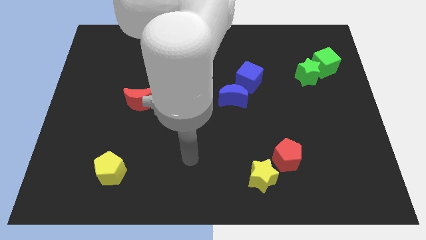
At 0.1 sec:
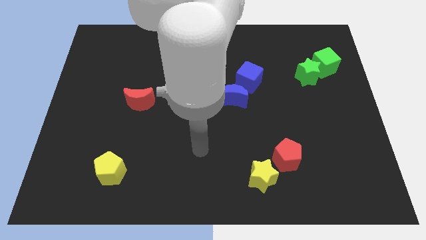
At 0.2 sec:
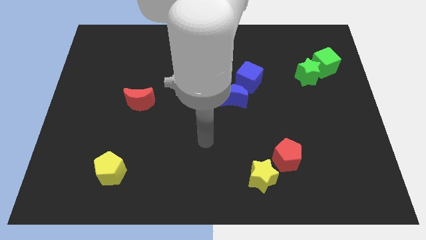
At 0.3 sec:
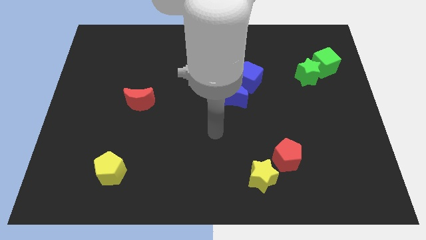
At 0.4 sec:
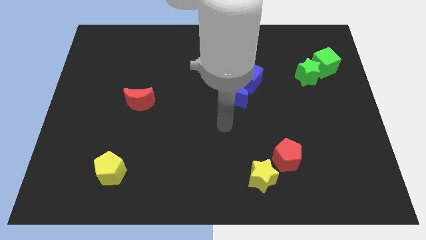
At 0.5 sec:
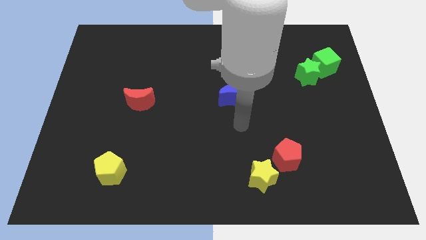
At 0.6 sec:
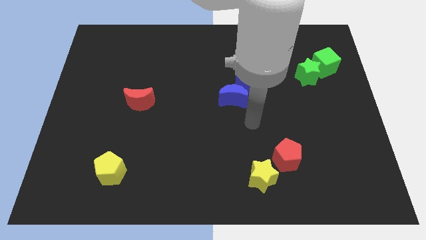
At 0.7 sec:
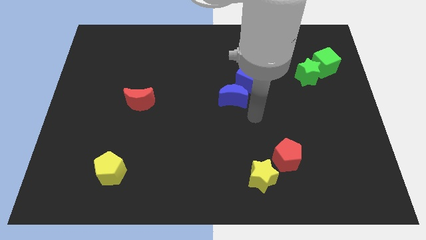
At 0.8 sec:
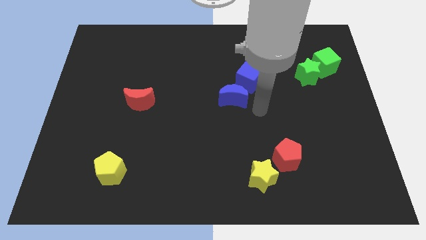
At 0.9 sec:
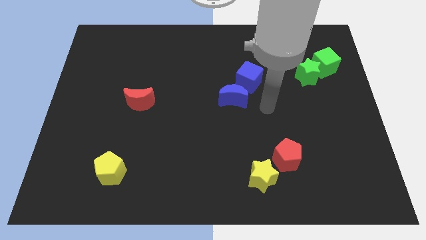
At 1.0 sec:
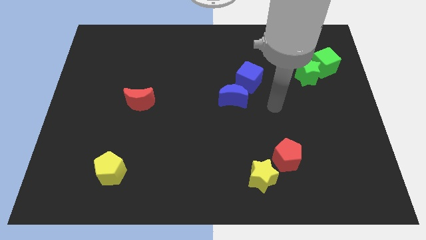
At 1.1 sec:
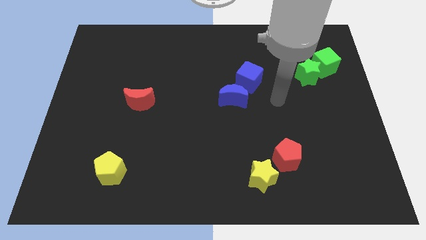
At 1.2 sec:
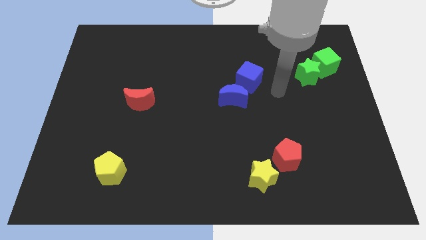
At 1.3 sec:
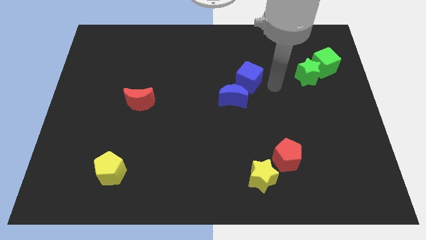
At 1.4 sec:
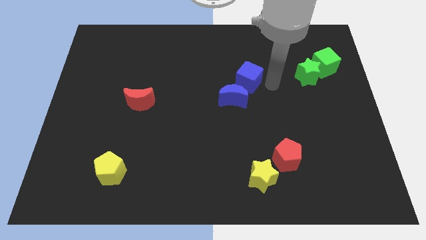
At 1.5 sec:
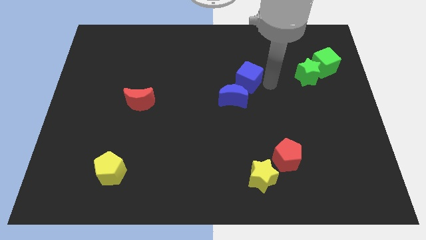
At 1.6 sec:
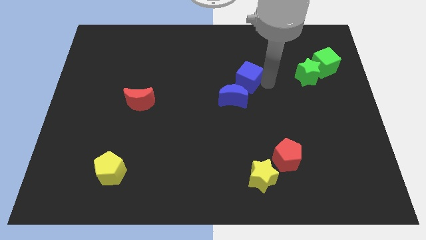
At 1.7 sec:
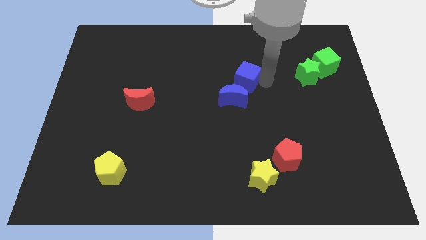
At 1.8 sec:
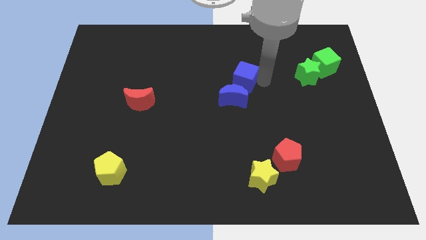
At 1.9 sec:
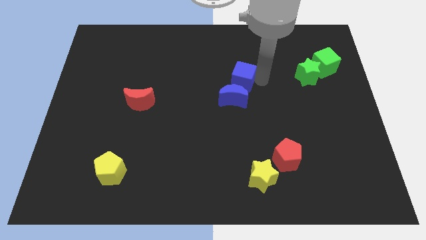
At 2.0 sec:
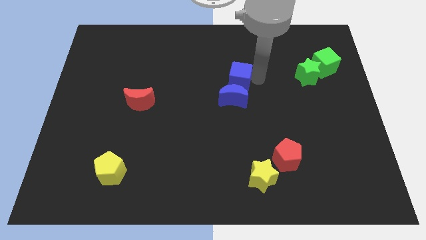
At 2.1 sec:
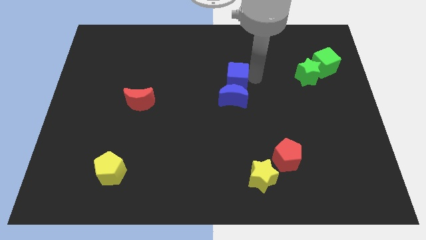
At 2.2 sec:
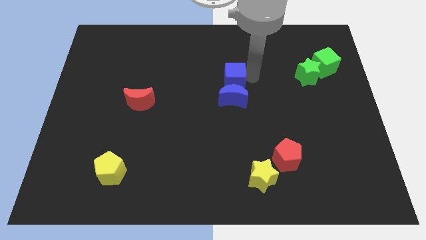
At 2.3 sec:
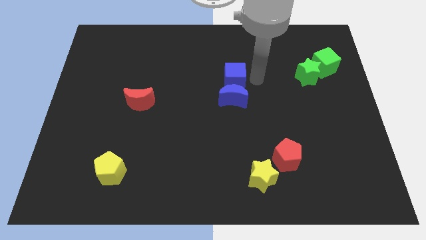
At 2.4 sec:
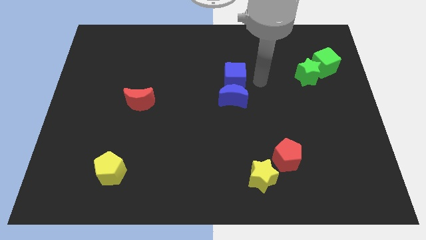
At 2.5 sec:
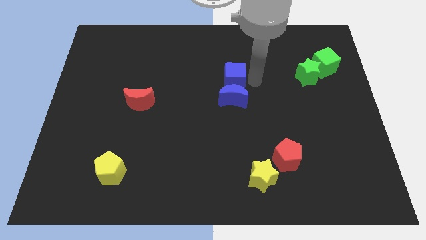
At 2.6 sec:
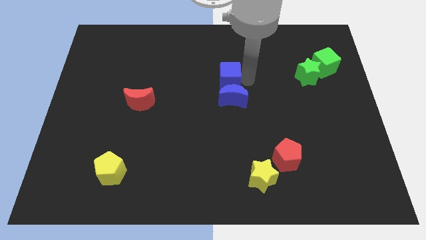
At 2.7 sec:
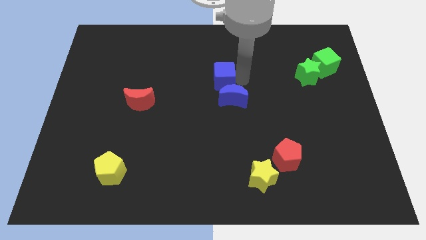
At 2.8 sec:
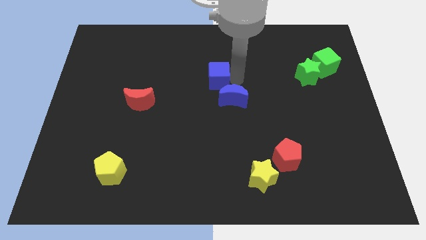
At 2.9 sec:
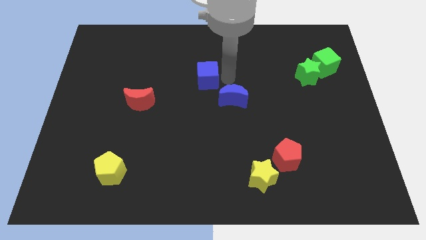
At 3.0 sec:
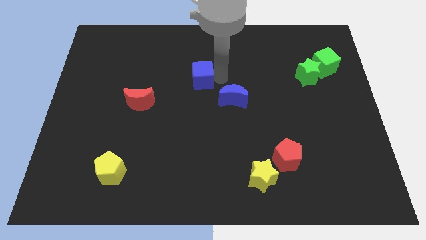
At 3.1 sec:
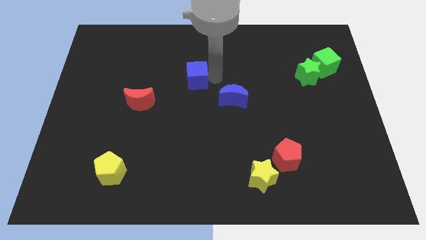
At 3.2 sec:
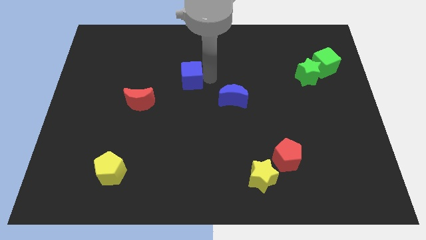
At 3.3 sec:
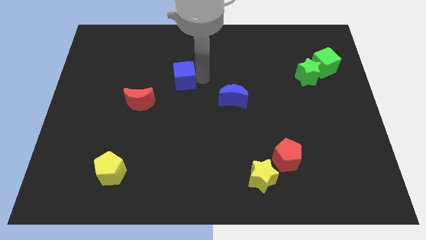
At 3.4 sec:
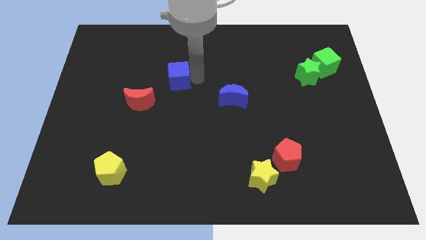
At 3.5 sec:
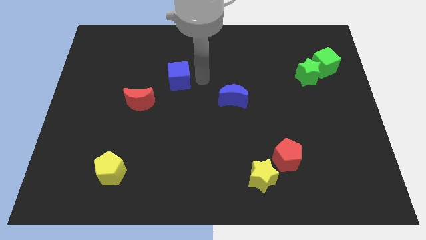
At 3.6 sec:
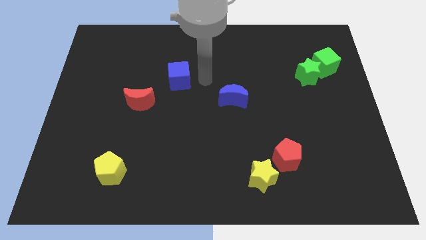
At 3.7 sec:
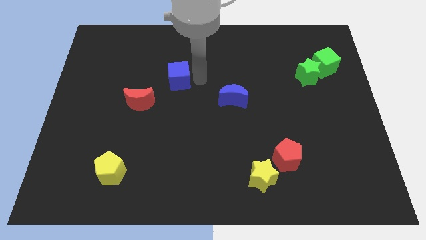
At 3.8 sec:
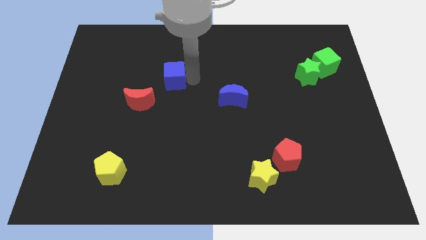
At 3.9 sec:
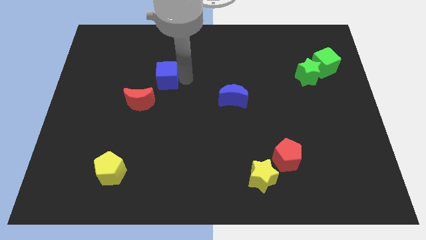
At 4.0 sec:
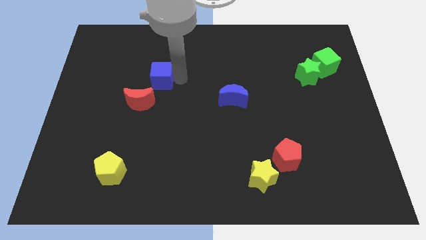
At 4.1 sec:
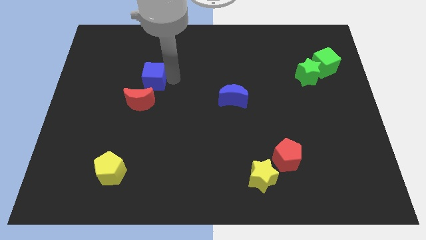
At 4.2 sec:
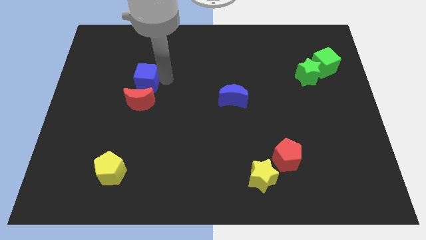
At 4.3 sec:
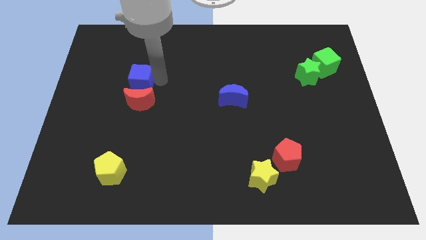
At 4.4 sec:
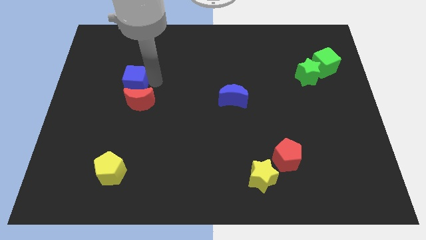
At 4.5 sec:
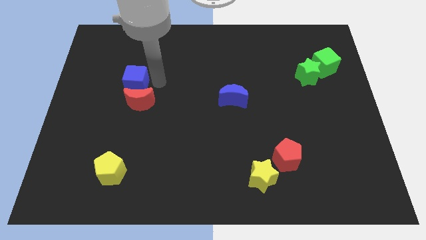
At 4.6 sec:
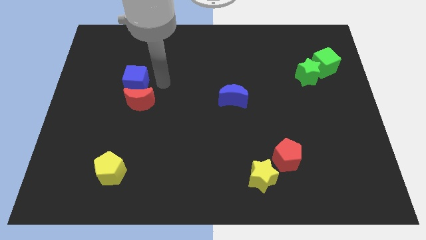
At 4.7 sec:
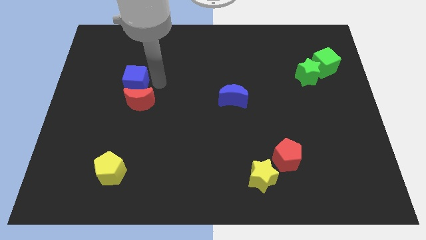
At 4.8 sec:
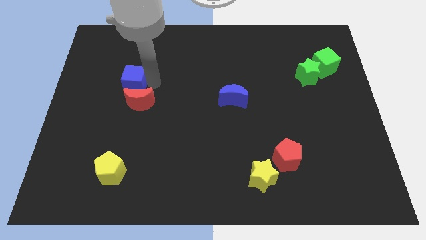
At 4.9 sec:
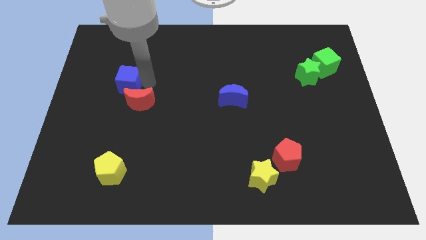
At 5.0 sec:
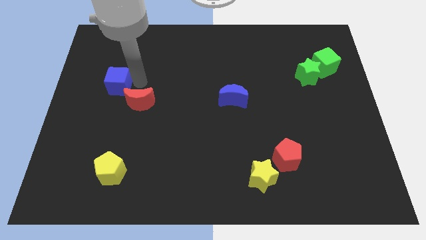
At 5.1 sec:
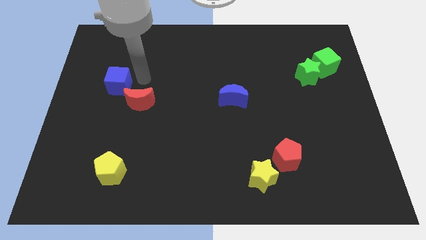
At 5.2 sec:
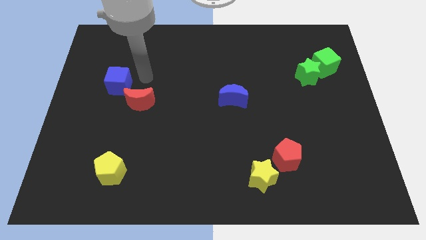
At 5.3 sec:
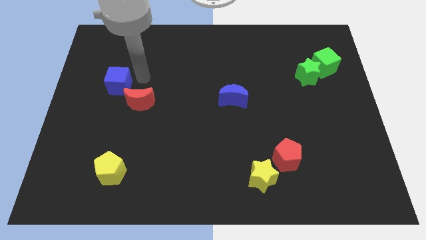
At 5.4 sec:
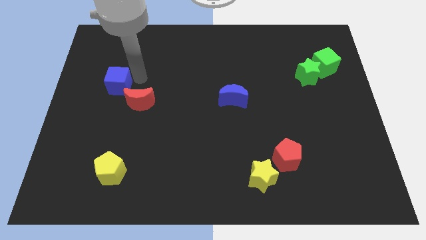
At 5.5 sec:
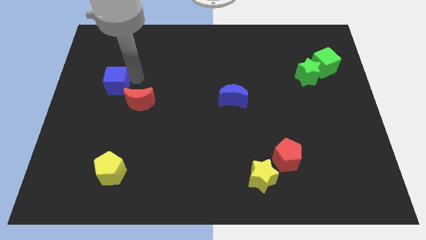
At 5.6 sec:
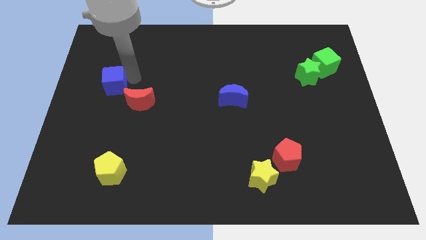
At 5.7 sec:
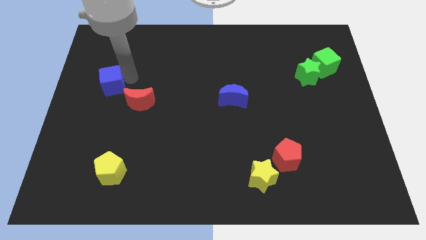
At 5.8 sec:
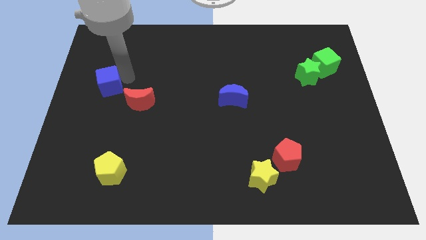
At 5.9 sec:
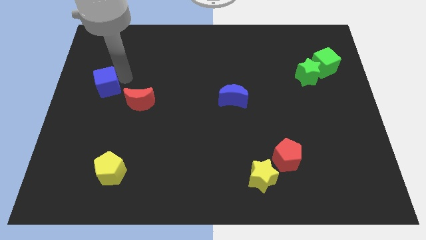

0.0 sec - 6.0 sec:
move the blue cube to the left side of the board

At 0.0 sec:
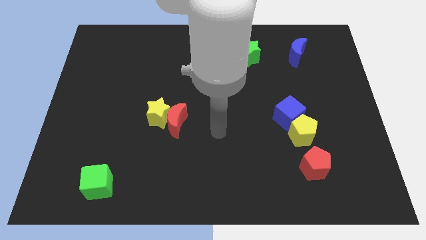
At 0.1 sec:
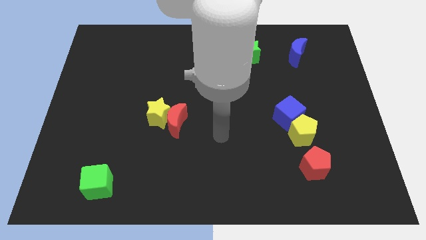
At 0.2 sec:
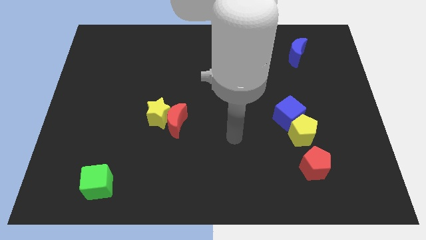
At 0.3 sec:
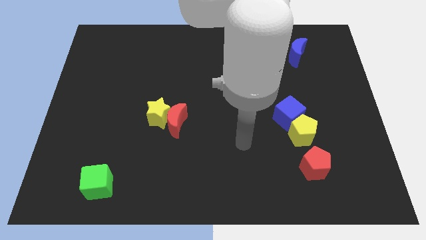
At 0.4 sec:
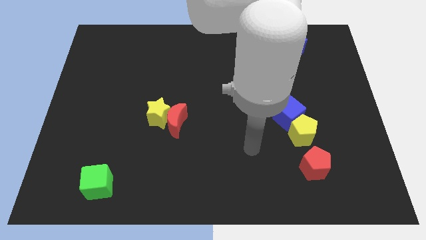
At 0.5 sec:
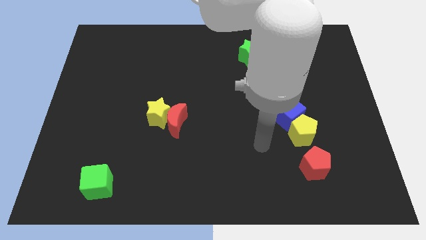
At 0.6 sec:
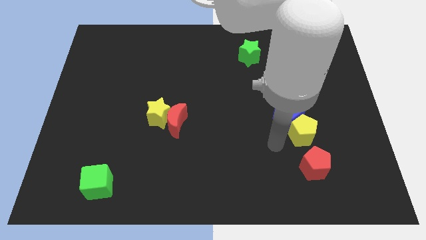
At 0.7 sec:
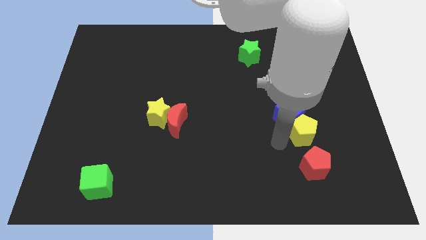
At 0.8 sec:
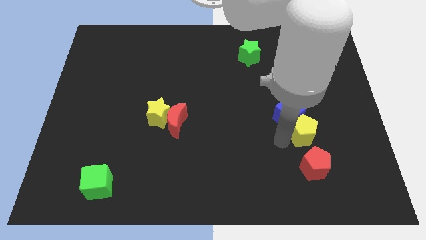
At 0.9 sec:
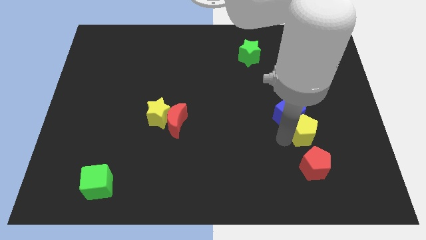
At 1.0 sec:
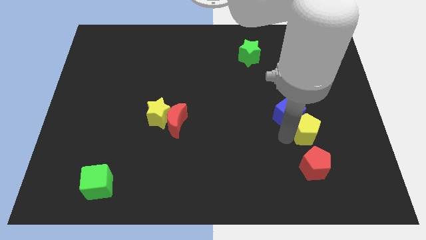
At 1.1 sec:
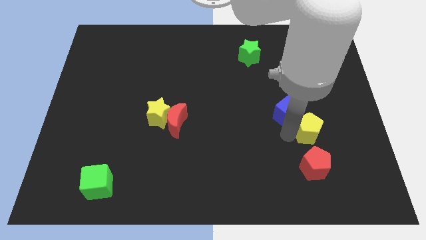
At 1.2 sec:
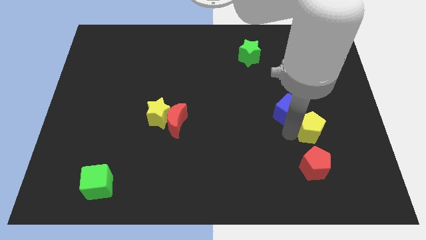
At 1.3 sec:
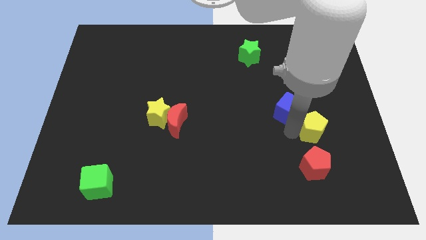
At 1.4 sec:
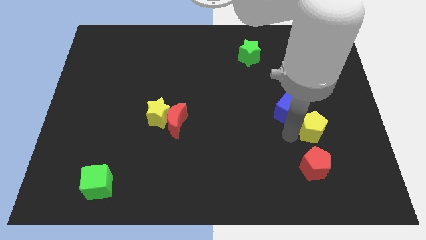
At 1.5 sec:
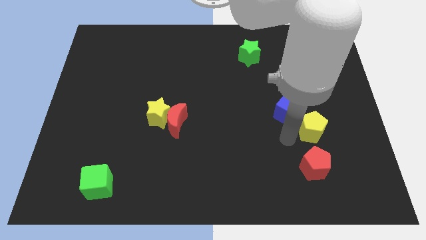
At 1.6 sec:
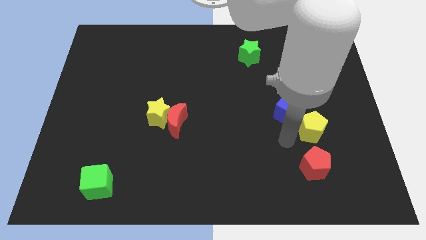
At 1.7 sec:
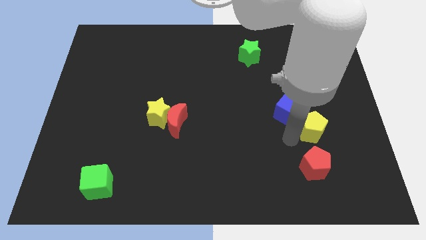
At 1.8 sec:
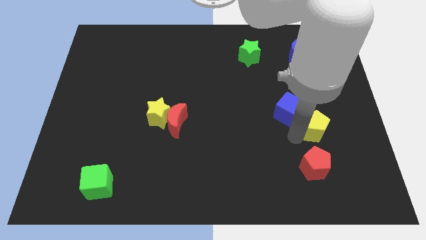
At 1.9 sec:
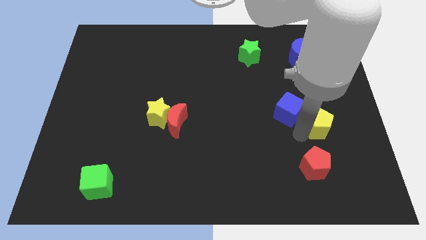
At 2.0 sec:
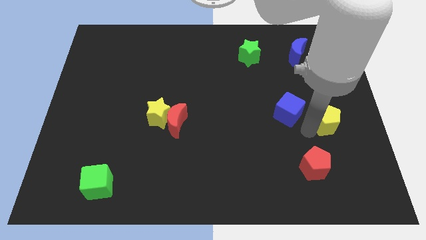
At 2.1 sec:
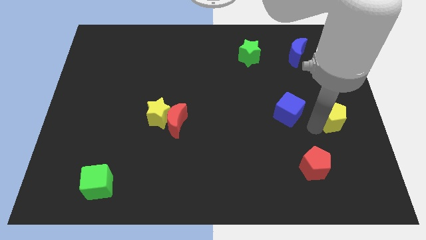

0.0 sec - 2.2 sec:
move the yellow pentagon to the right side

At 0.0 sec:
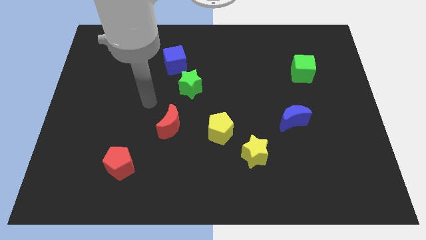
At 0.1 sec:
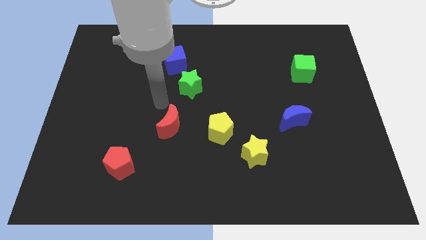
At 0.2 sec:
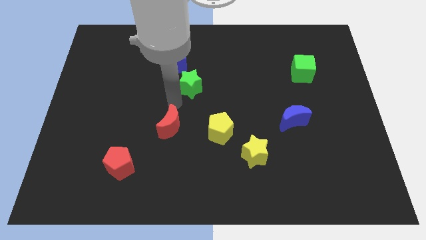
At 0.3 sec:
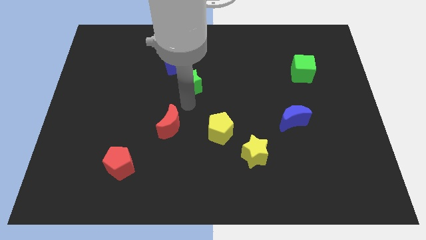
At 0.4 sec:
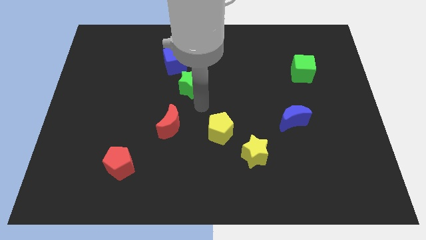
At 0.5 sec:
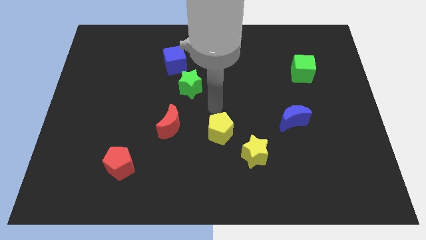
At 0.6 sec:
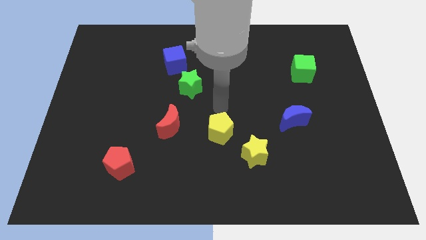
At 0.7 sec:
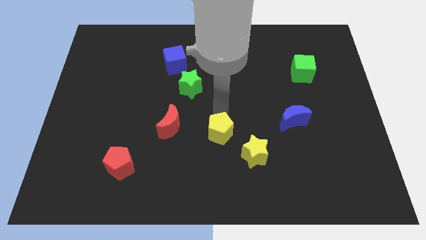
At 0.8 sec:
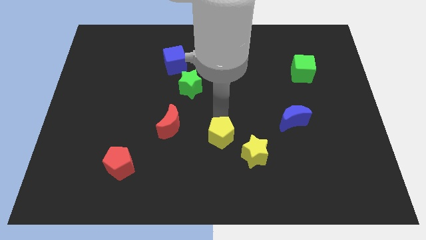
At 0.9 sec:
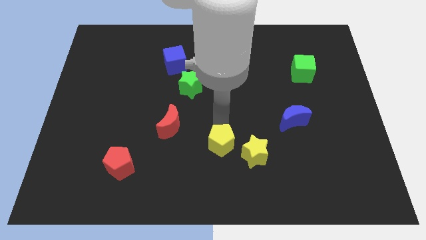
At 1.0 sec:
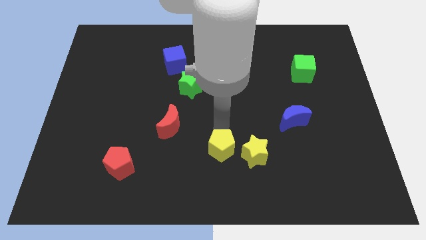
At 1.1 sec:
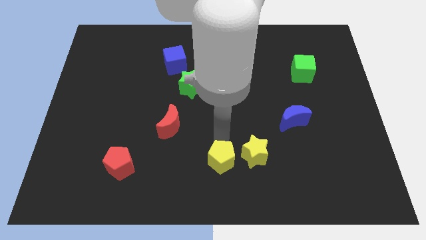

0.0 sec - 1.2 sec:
slide the yellow pentagon to the bottom side
